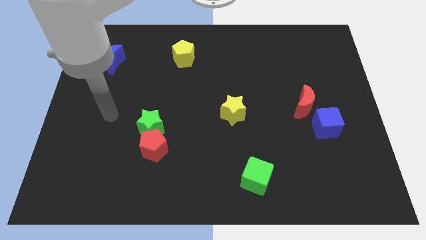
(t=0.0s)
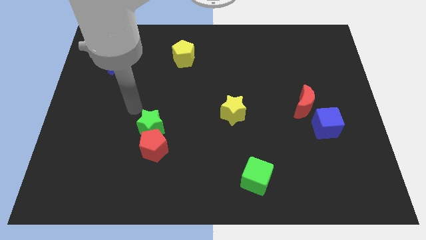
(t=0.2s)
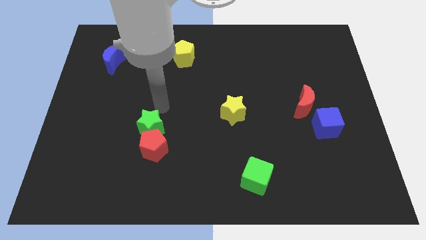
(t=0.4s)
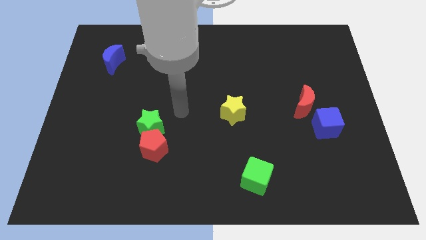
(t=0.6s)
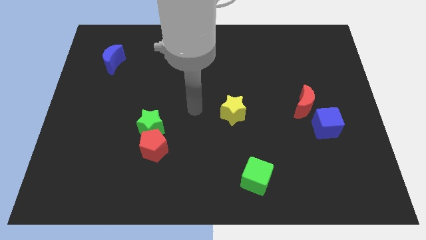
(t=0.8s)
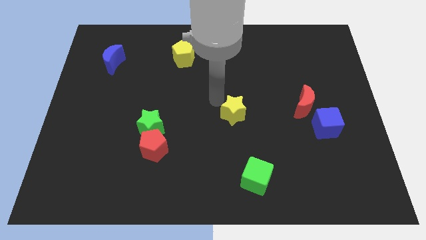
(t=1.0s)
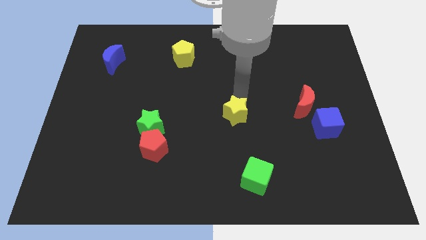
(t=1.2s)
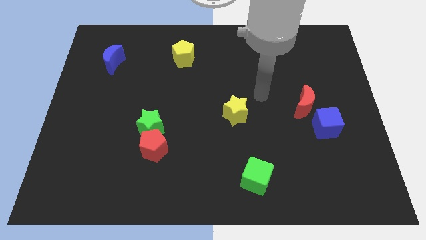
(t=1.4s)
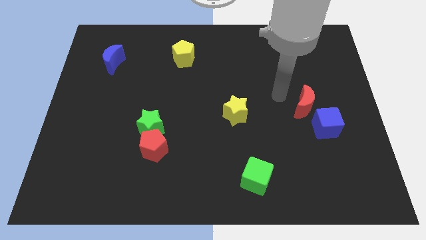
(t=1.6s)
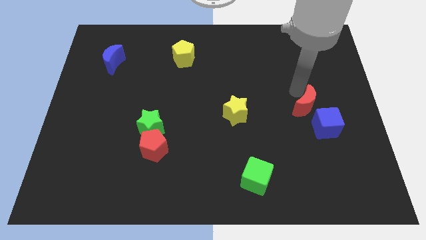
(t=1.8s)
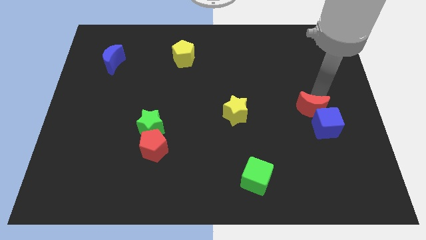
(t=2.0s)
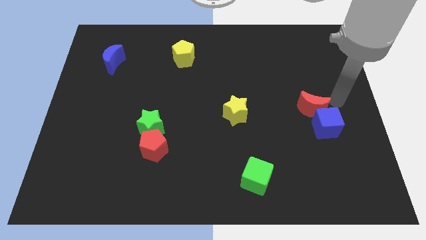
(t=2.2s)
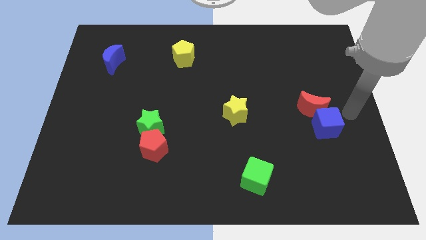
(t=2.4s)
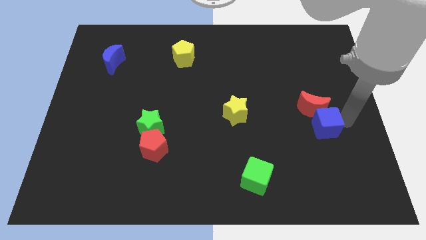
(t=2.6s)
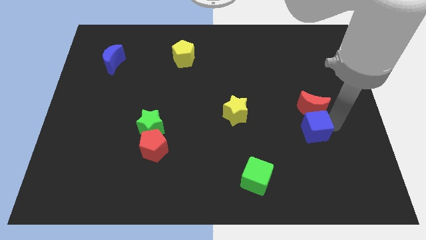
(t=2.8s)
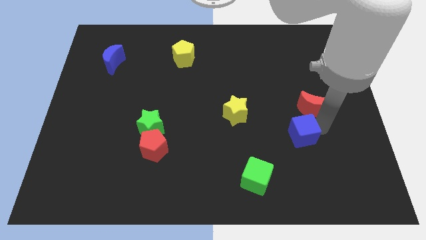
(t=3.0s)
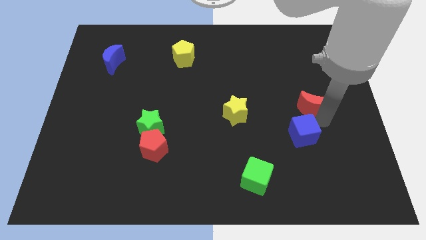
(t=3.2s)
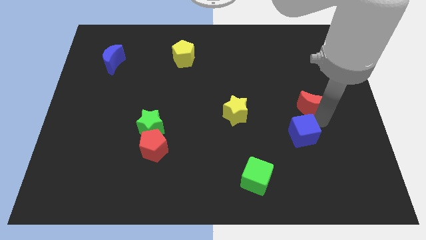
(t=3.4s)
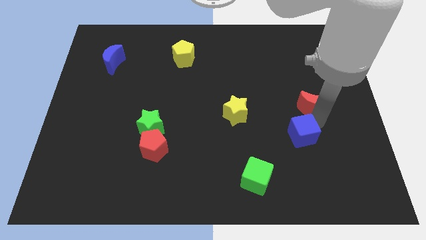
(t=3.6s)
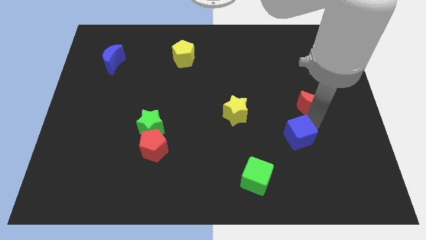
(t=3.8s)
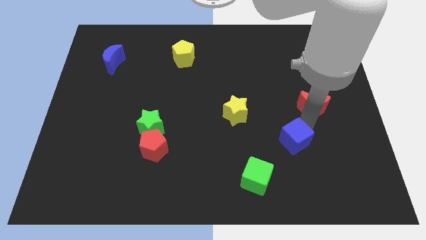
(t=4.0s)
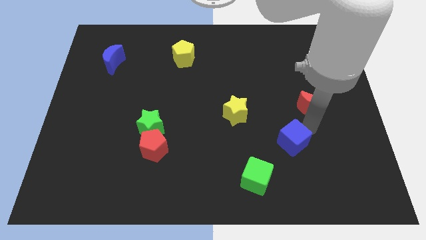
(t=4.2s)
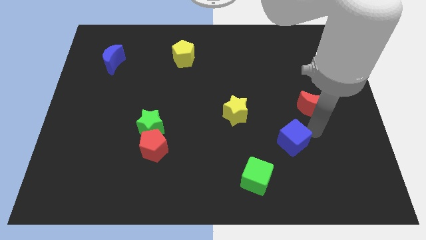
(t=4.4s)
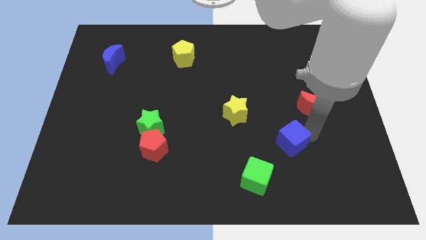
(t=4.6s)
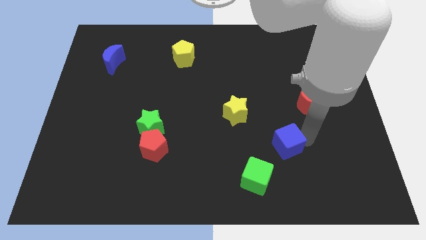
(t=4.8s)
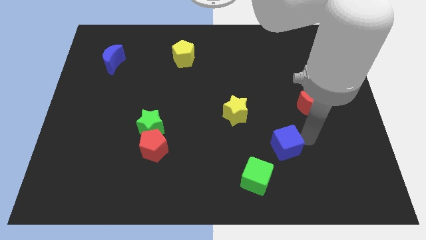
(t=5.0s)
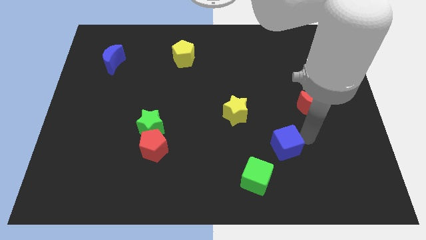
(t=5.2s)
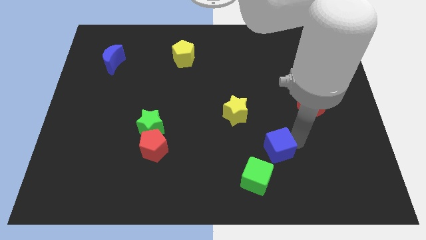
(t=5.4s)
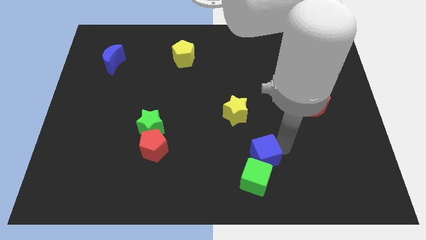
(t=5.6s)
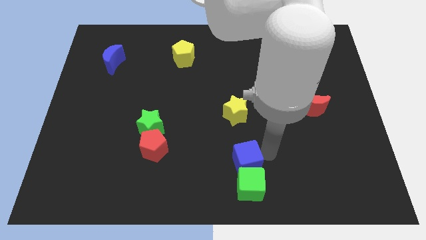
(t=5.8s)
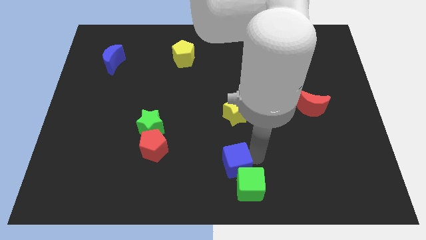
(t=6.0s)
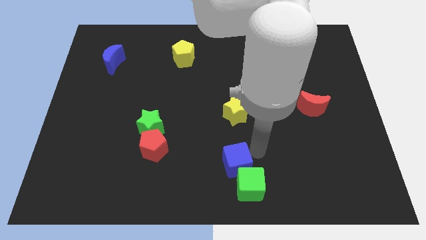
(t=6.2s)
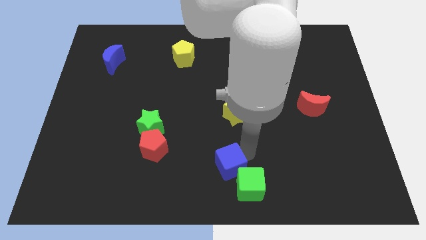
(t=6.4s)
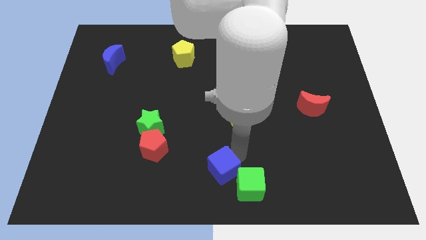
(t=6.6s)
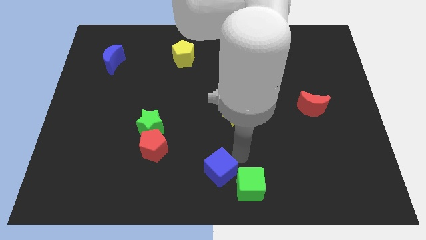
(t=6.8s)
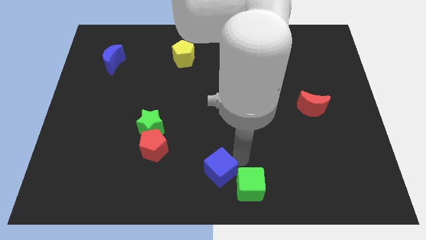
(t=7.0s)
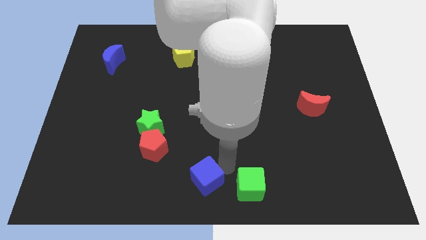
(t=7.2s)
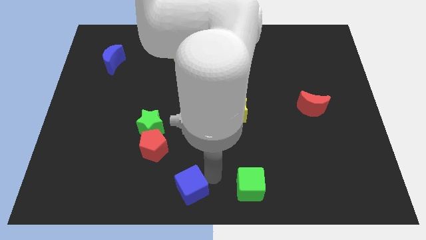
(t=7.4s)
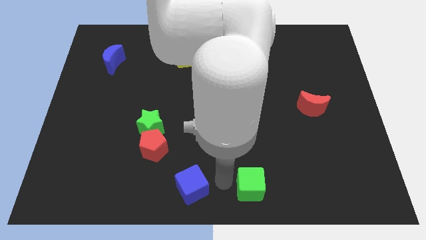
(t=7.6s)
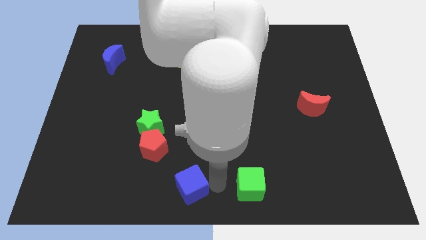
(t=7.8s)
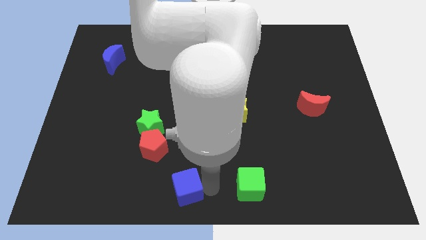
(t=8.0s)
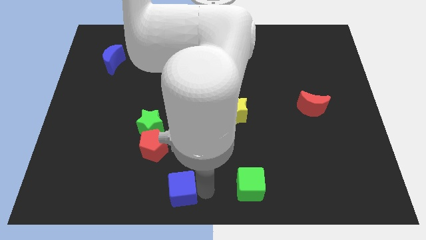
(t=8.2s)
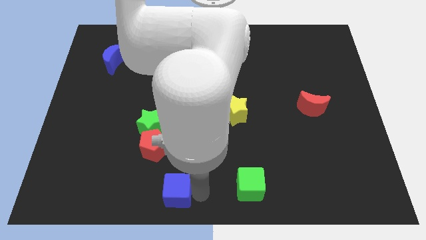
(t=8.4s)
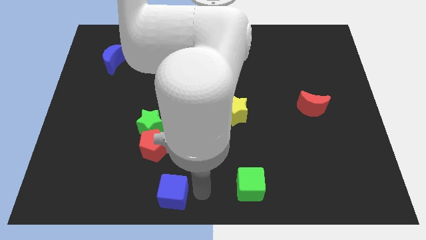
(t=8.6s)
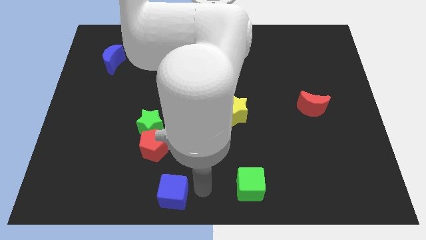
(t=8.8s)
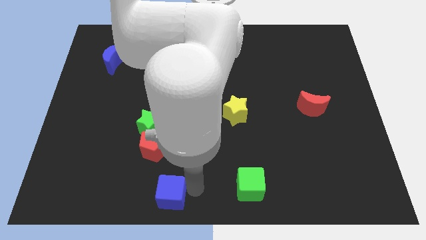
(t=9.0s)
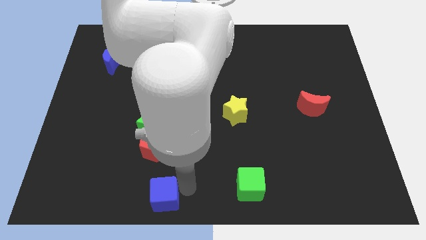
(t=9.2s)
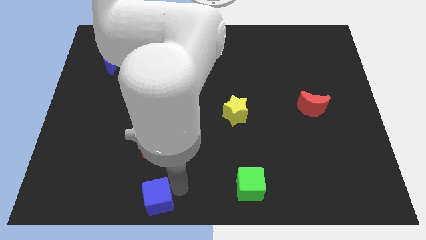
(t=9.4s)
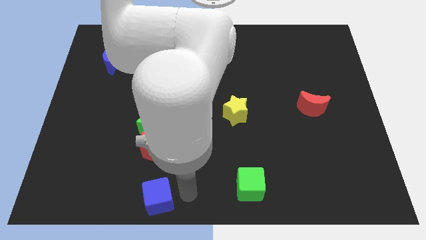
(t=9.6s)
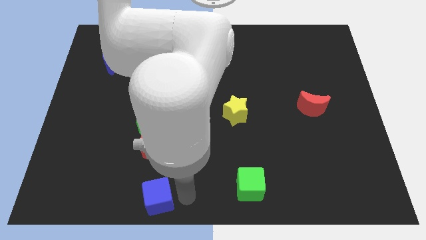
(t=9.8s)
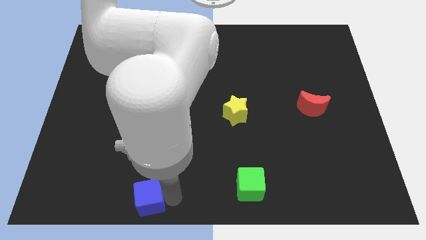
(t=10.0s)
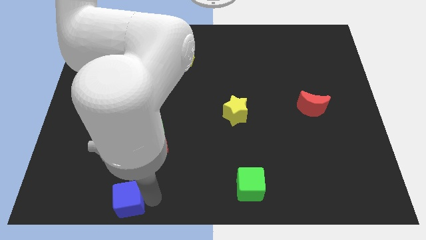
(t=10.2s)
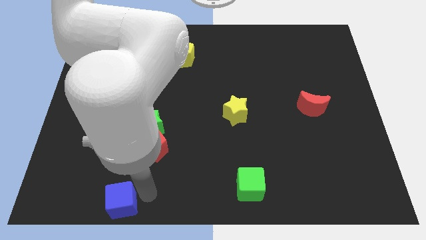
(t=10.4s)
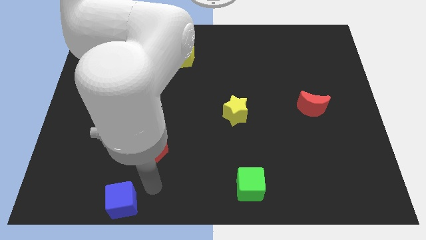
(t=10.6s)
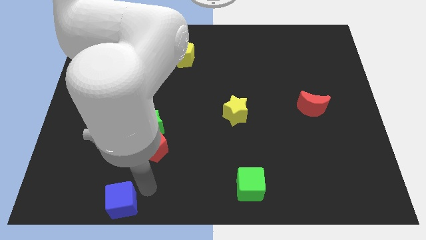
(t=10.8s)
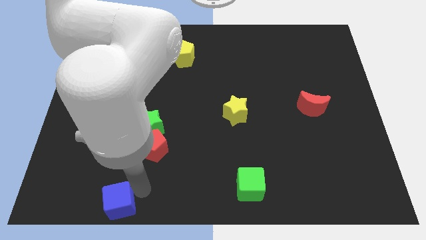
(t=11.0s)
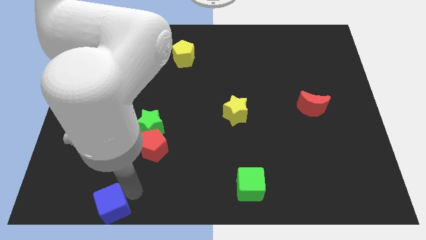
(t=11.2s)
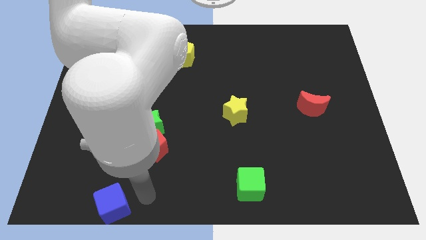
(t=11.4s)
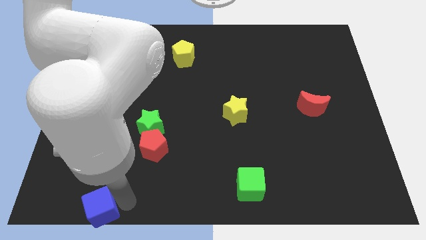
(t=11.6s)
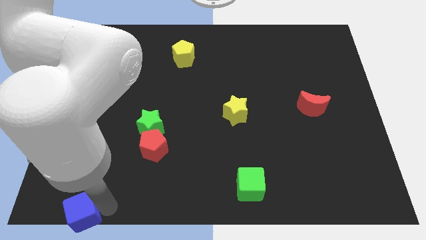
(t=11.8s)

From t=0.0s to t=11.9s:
put the blue cube to the bottom left of the board

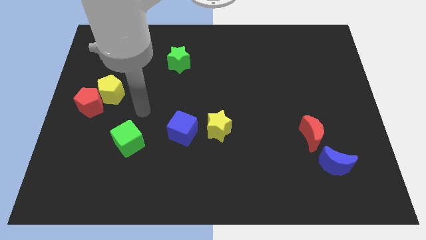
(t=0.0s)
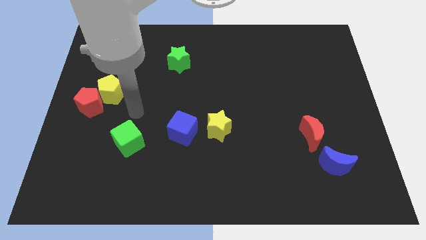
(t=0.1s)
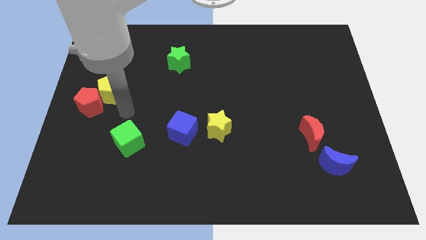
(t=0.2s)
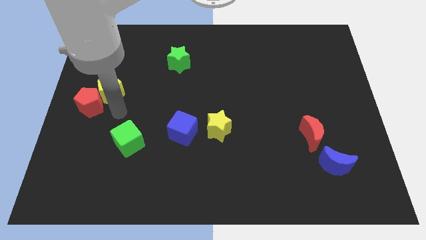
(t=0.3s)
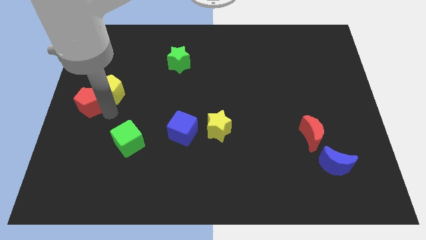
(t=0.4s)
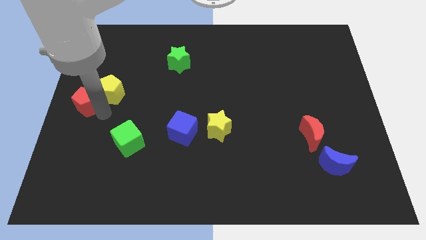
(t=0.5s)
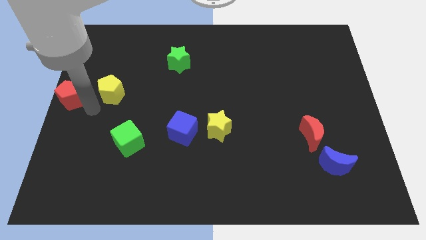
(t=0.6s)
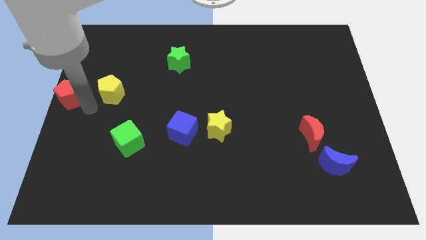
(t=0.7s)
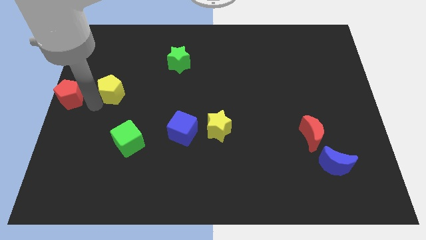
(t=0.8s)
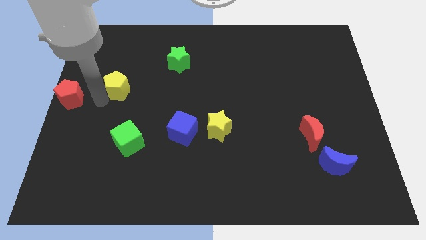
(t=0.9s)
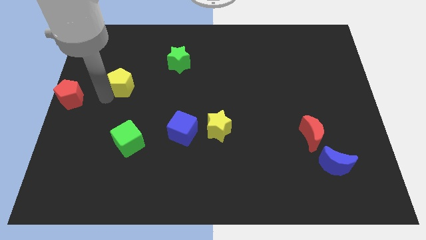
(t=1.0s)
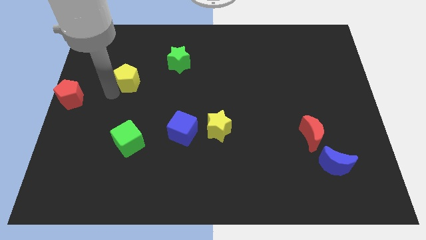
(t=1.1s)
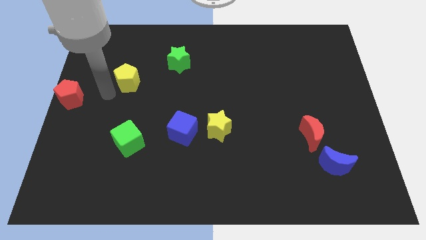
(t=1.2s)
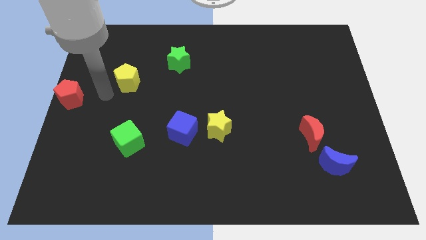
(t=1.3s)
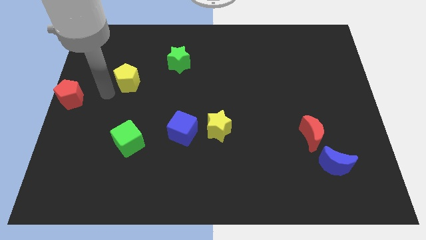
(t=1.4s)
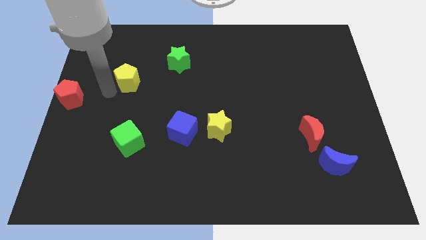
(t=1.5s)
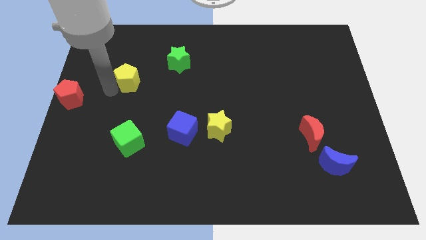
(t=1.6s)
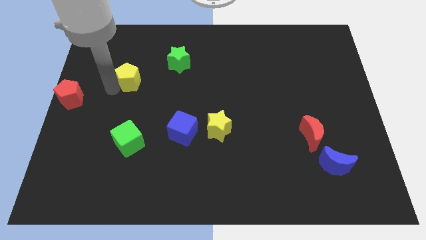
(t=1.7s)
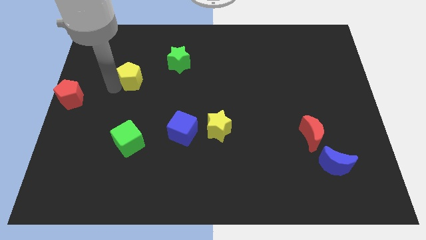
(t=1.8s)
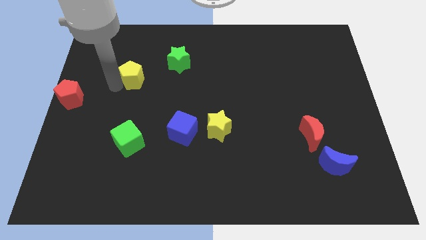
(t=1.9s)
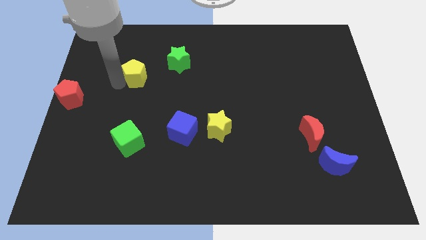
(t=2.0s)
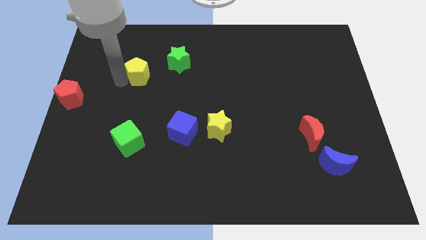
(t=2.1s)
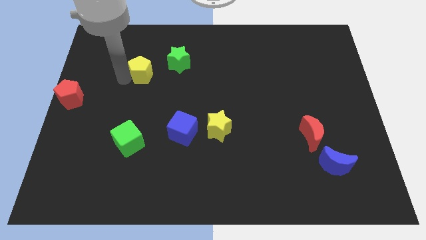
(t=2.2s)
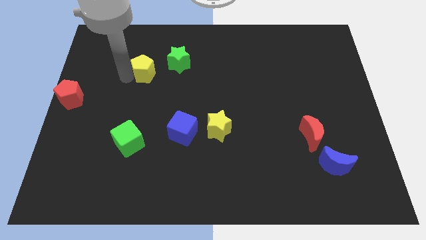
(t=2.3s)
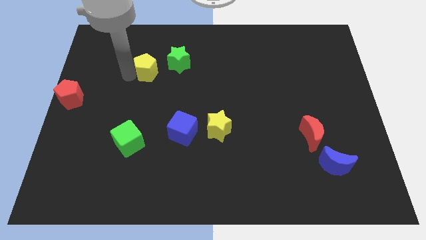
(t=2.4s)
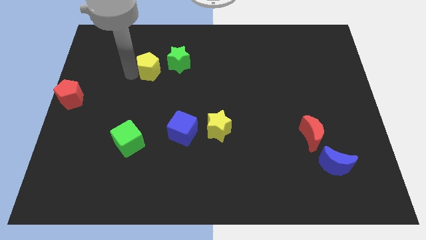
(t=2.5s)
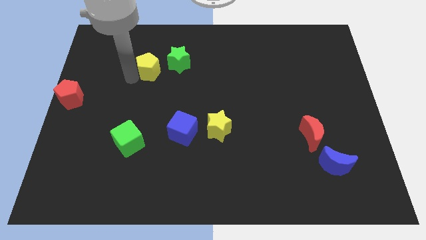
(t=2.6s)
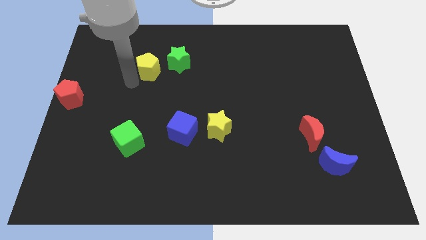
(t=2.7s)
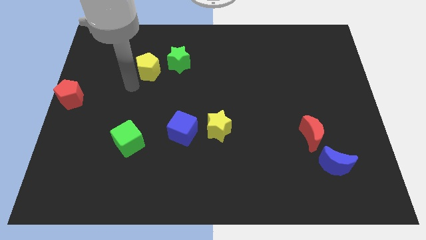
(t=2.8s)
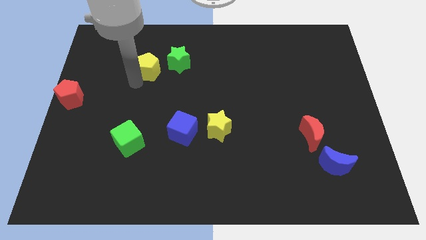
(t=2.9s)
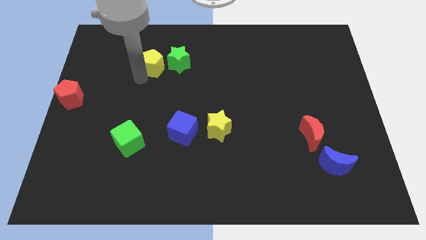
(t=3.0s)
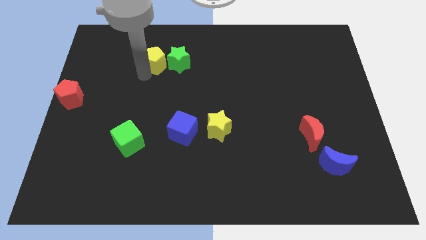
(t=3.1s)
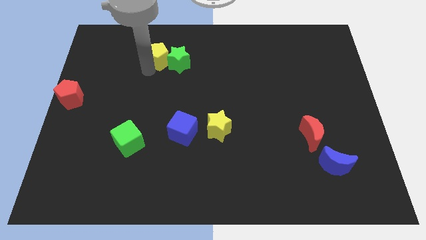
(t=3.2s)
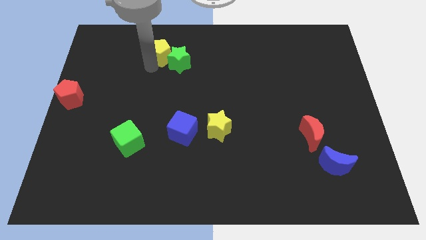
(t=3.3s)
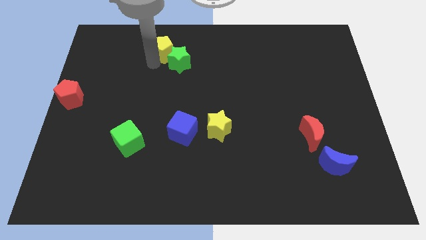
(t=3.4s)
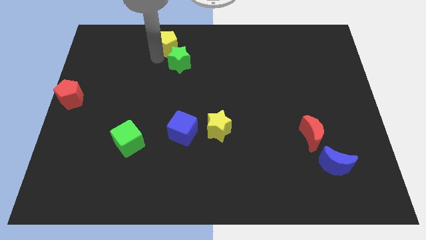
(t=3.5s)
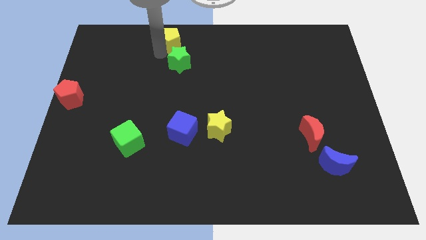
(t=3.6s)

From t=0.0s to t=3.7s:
put the yellow pentagon to the top
